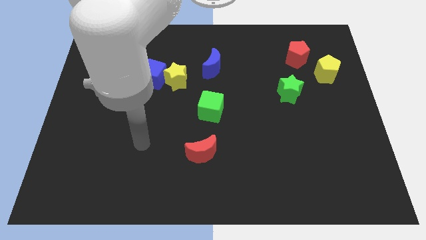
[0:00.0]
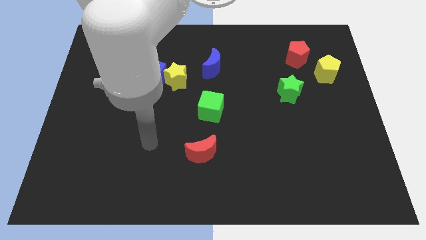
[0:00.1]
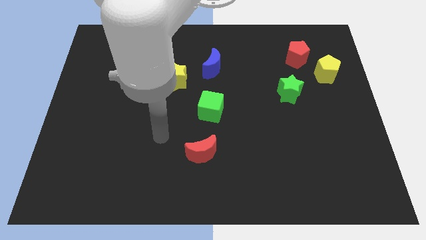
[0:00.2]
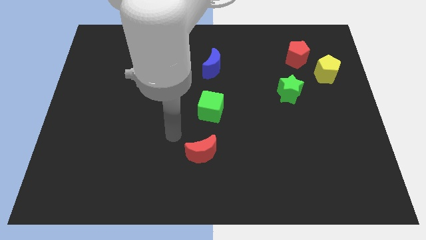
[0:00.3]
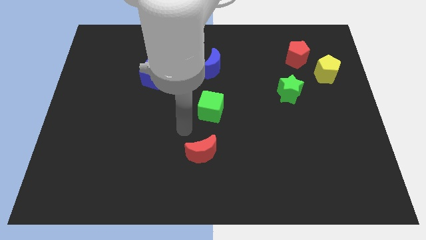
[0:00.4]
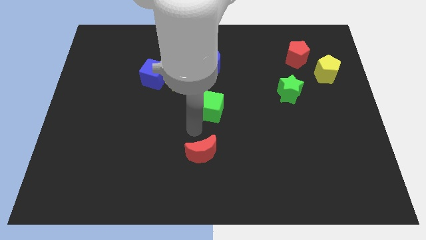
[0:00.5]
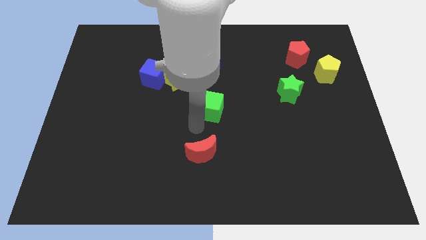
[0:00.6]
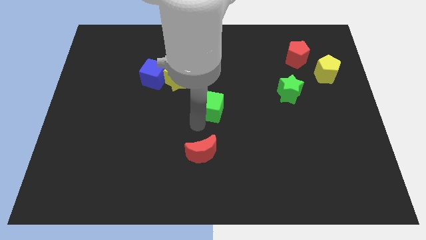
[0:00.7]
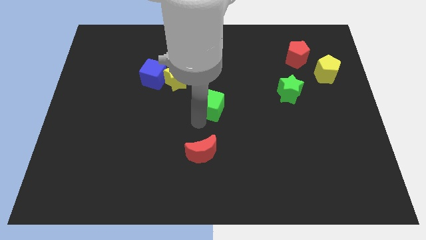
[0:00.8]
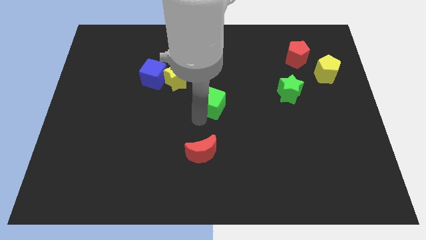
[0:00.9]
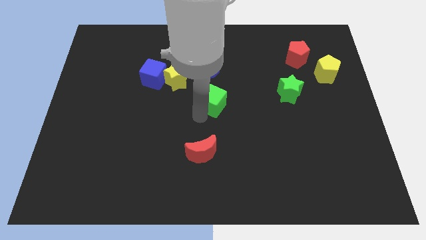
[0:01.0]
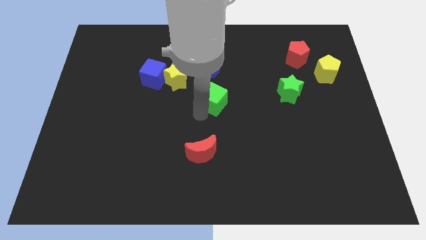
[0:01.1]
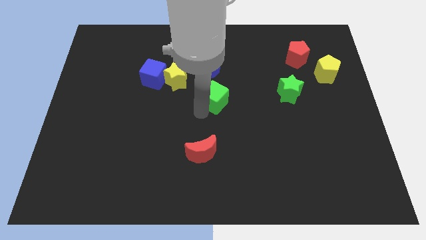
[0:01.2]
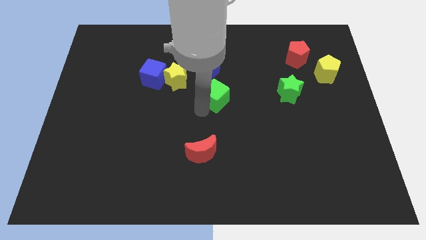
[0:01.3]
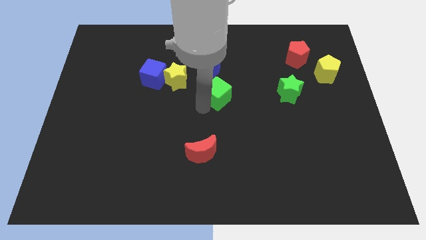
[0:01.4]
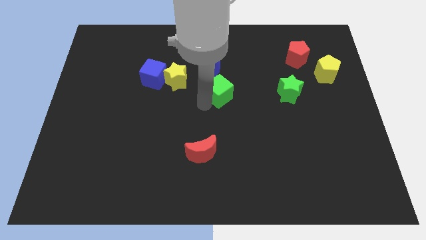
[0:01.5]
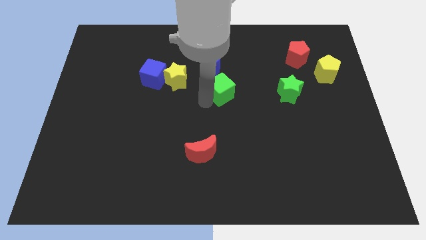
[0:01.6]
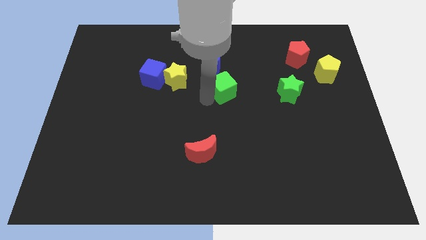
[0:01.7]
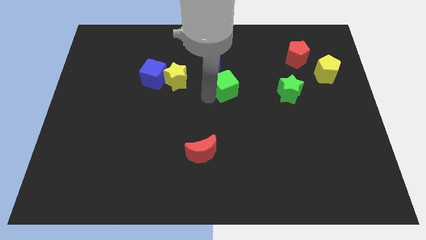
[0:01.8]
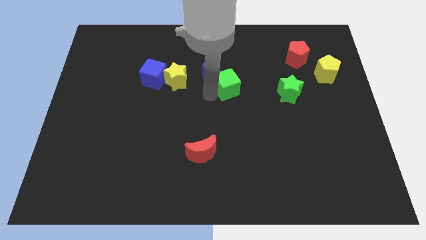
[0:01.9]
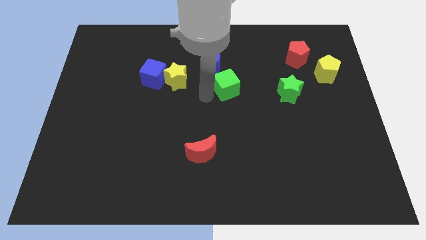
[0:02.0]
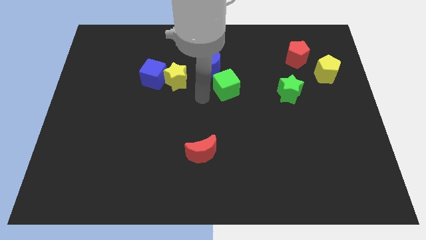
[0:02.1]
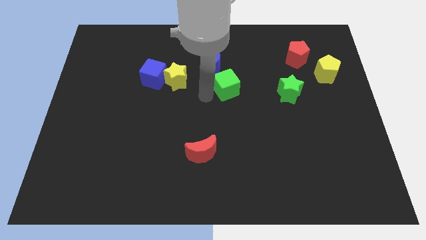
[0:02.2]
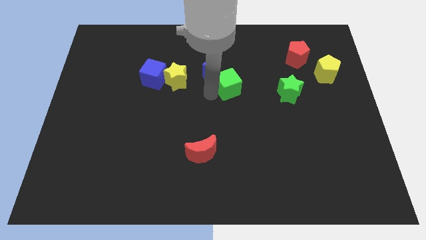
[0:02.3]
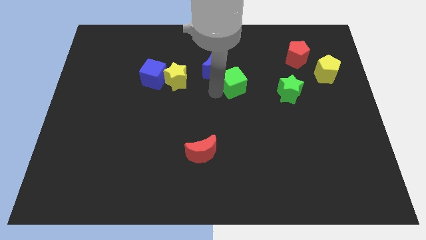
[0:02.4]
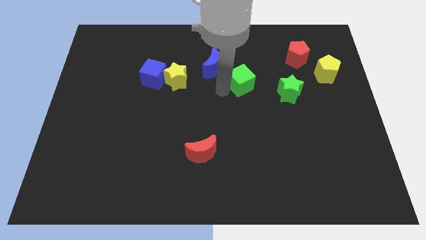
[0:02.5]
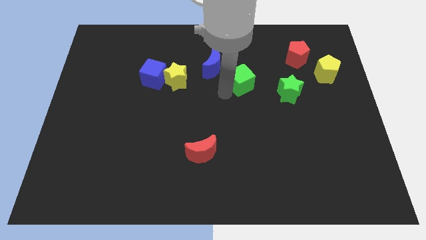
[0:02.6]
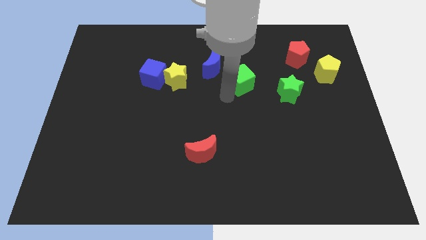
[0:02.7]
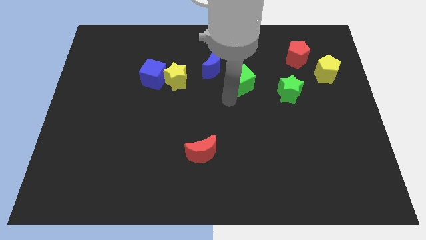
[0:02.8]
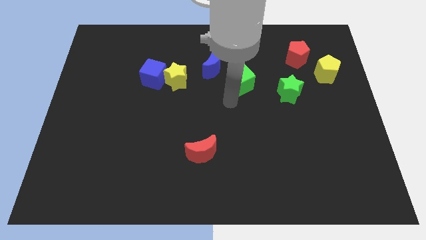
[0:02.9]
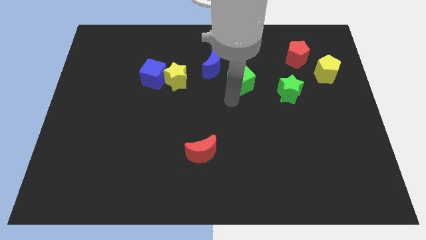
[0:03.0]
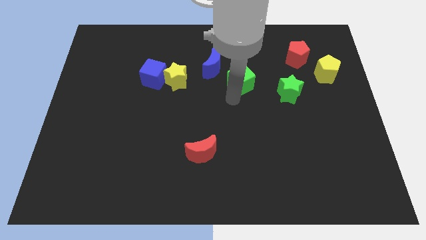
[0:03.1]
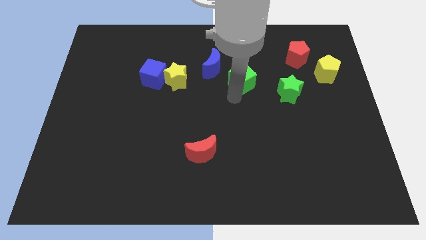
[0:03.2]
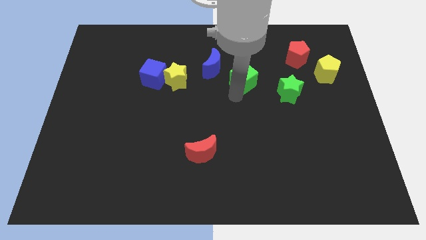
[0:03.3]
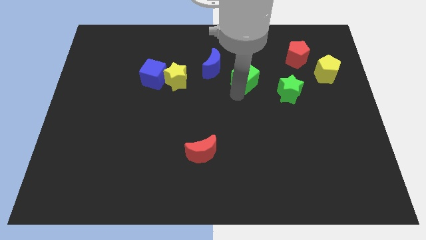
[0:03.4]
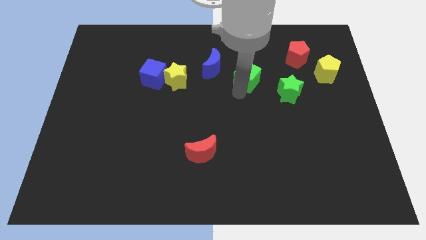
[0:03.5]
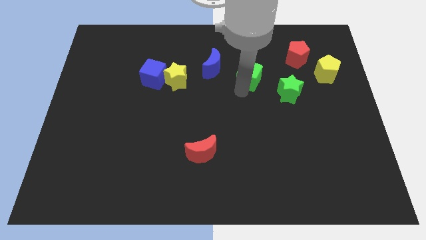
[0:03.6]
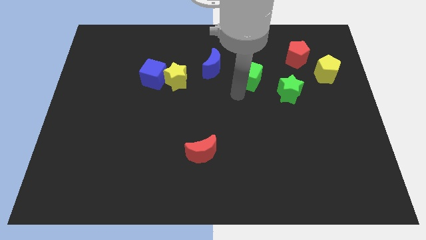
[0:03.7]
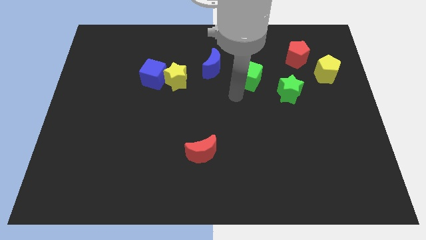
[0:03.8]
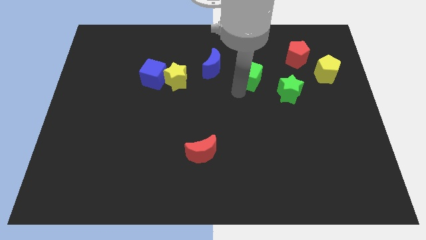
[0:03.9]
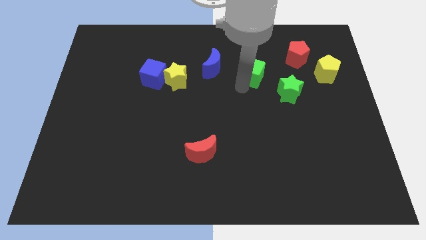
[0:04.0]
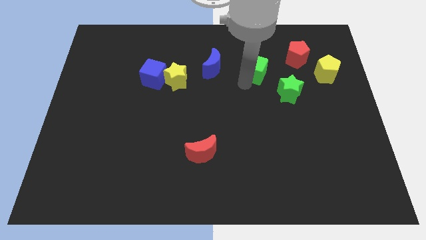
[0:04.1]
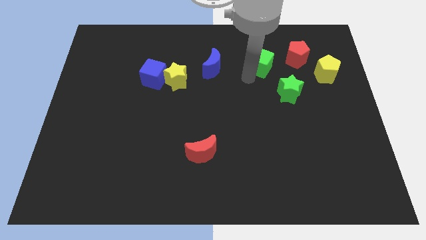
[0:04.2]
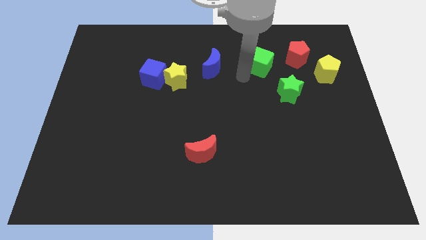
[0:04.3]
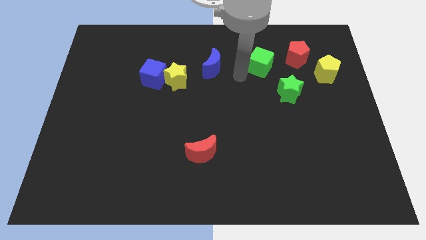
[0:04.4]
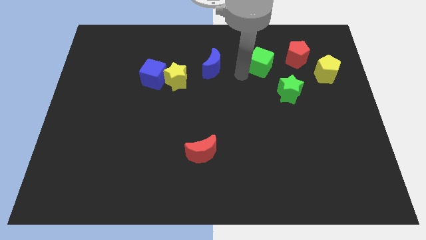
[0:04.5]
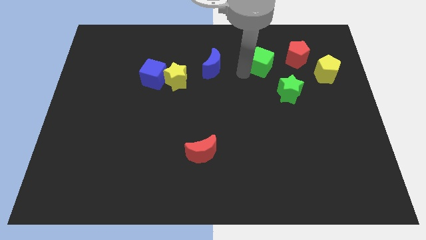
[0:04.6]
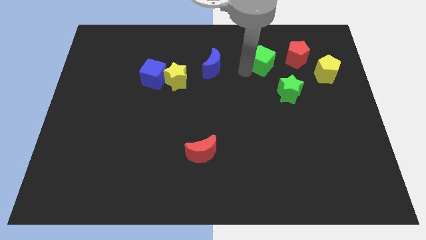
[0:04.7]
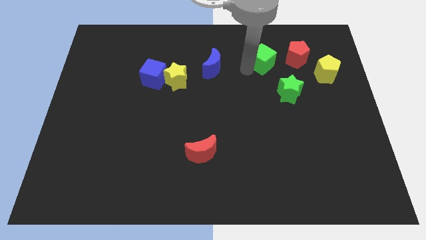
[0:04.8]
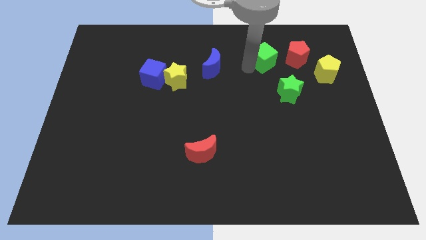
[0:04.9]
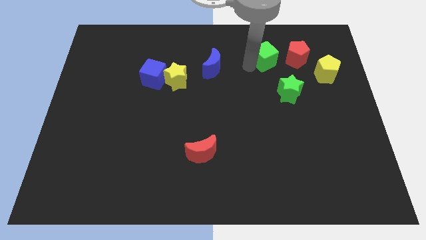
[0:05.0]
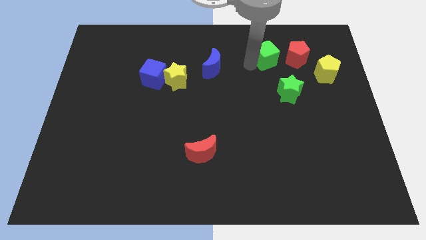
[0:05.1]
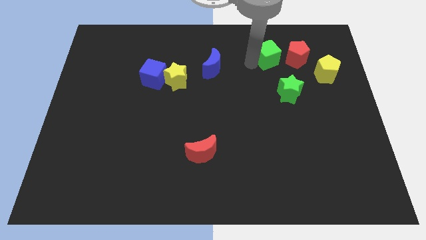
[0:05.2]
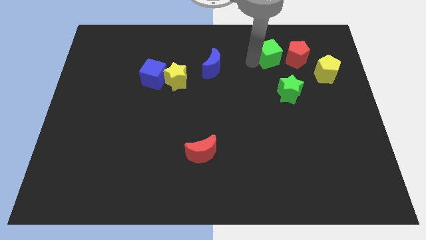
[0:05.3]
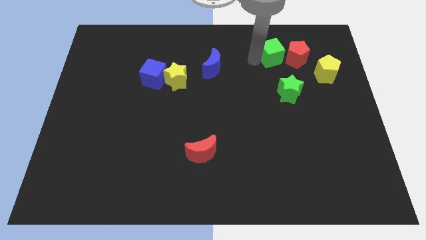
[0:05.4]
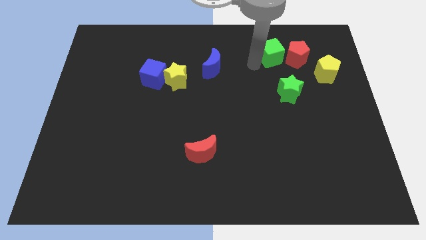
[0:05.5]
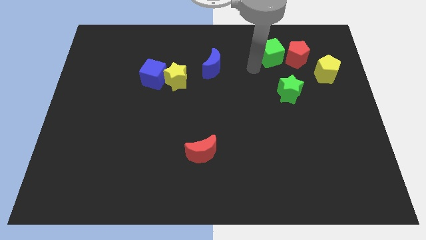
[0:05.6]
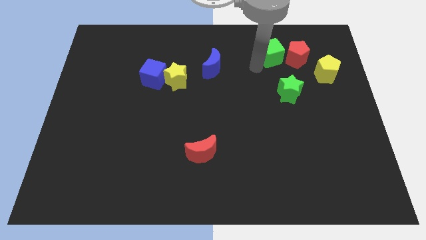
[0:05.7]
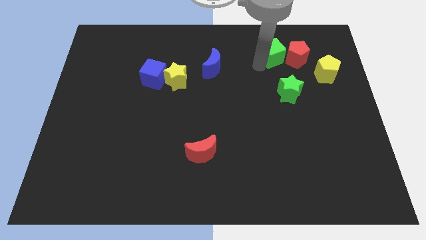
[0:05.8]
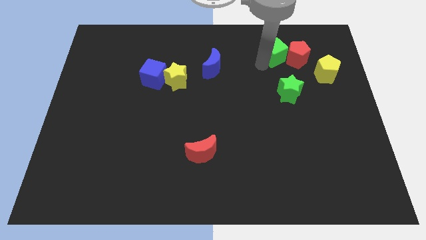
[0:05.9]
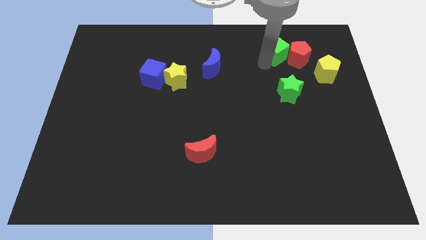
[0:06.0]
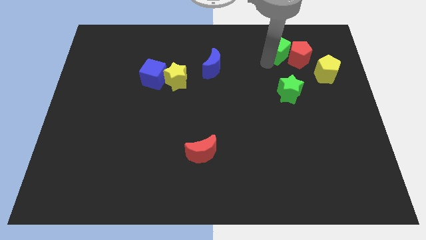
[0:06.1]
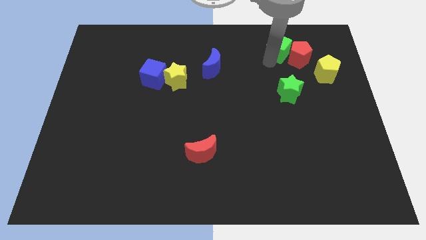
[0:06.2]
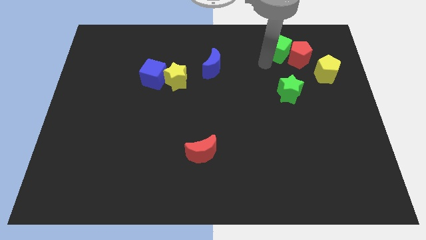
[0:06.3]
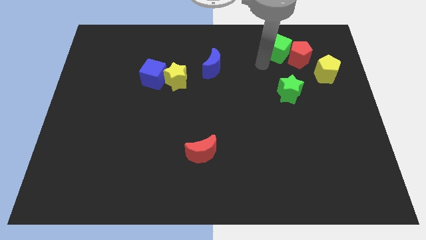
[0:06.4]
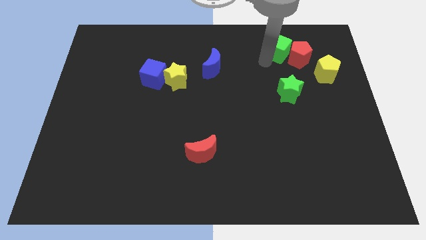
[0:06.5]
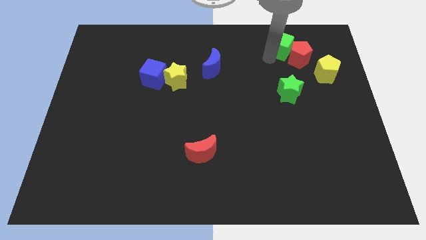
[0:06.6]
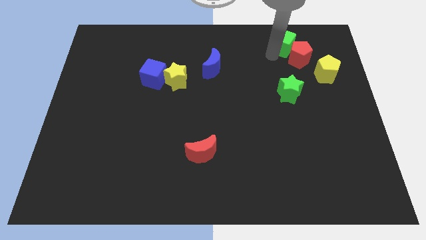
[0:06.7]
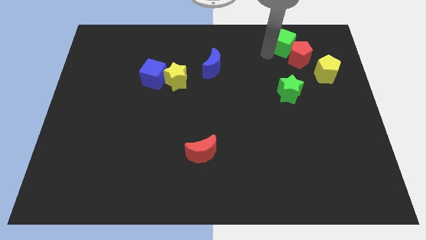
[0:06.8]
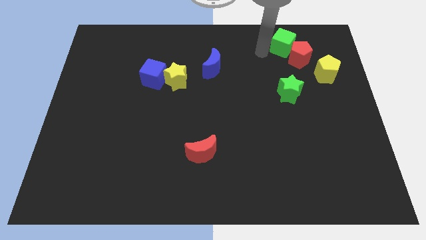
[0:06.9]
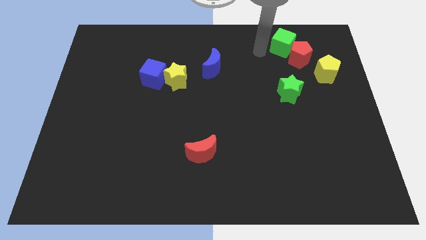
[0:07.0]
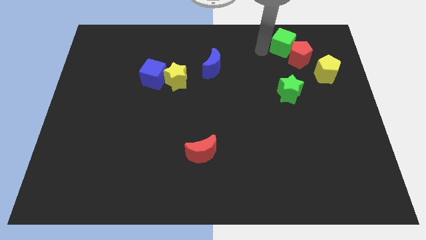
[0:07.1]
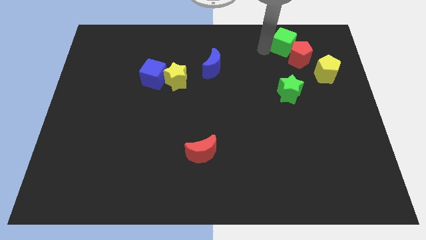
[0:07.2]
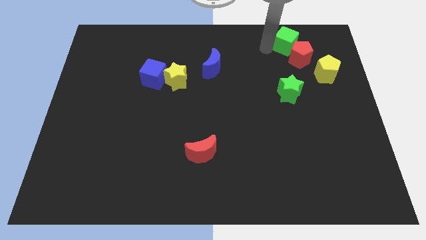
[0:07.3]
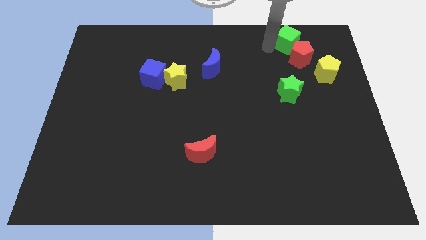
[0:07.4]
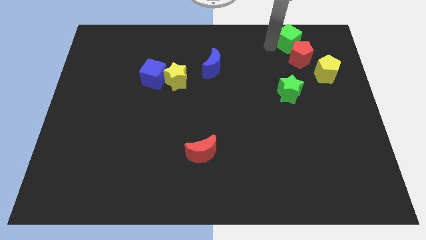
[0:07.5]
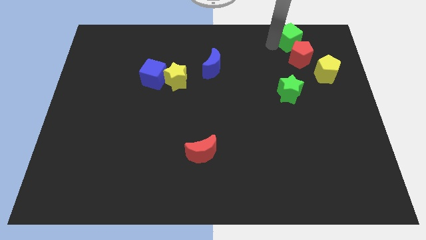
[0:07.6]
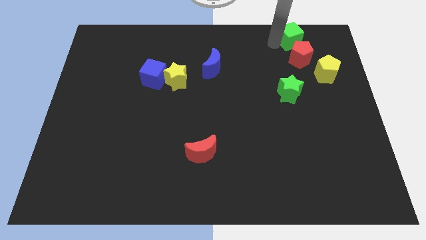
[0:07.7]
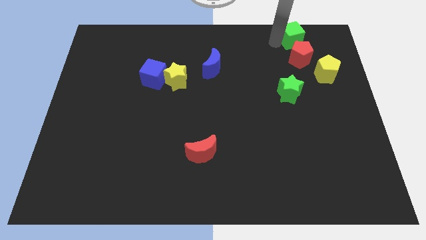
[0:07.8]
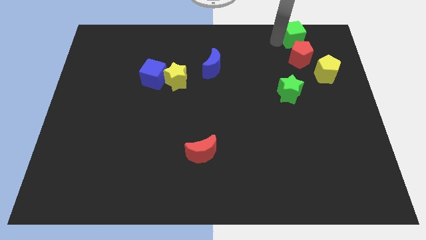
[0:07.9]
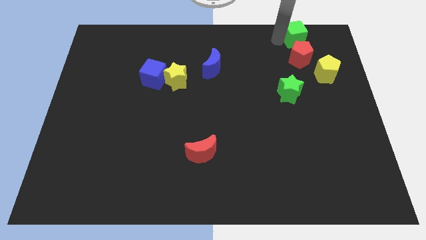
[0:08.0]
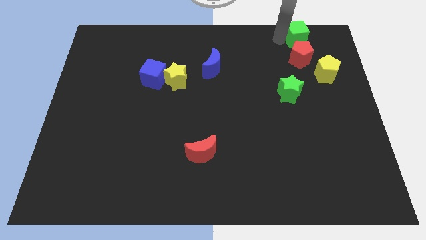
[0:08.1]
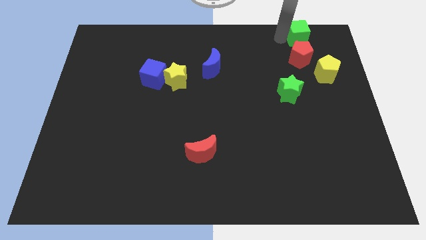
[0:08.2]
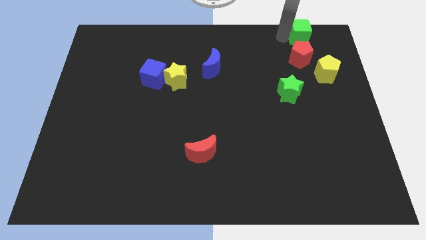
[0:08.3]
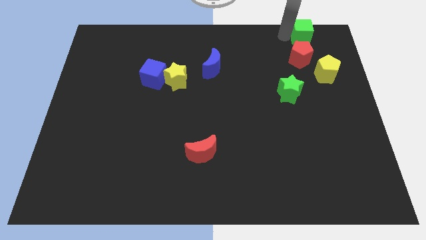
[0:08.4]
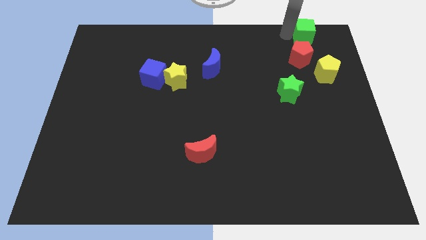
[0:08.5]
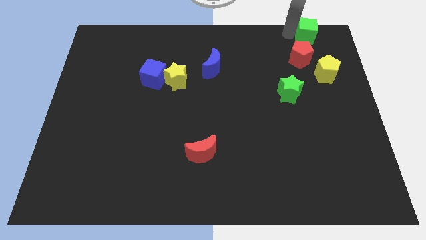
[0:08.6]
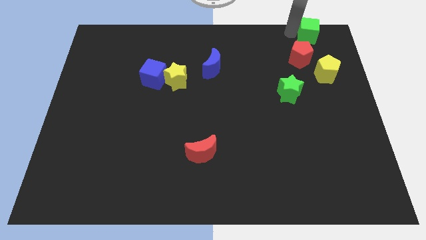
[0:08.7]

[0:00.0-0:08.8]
put the green cube to the upper right corner
